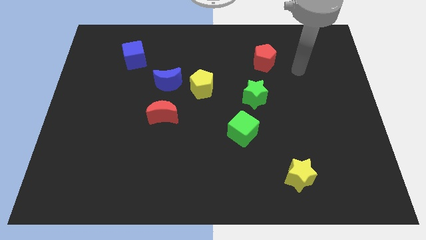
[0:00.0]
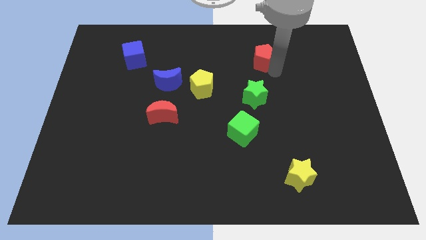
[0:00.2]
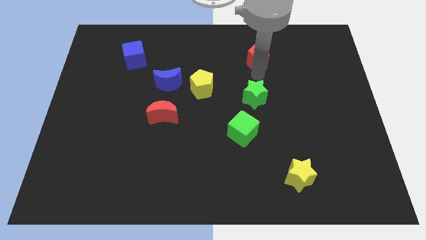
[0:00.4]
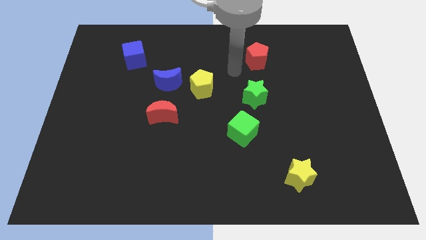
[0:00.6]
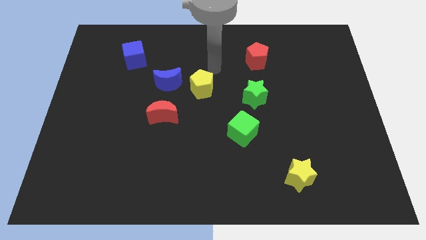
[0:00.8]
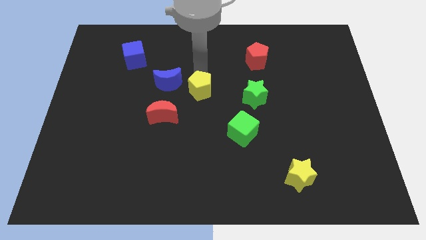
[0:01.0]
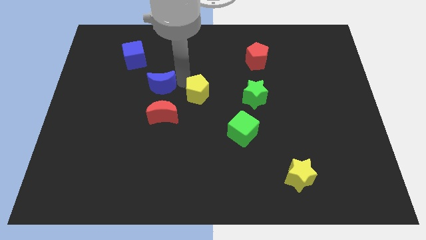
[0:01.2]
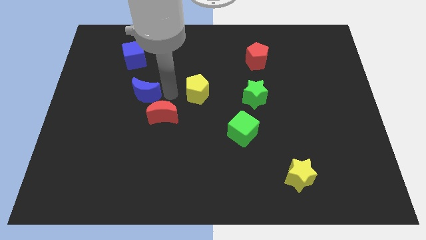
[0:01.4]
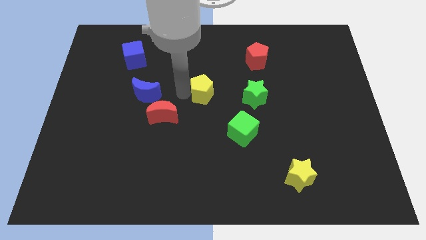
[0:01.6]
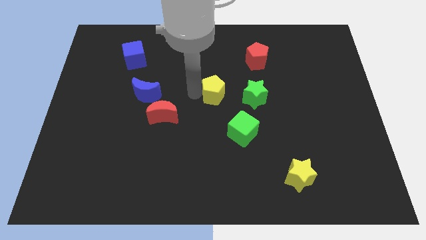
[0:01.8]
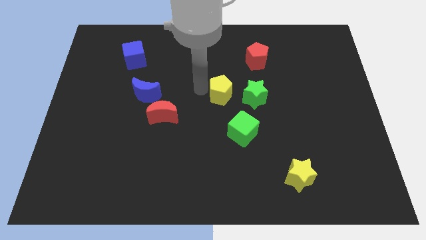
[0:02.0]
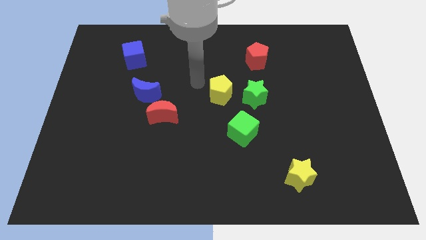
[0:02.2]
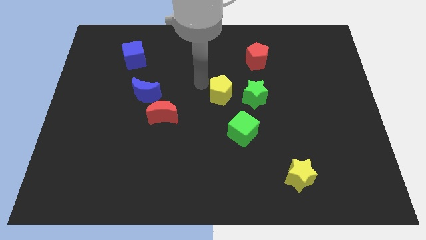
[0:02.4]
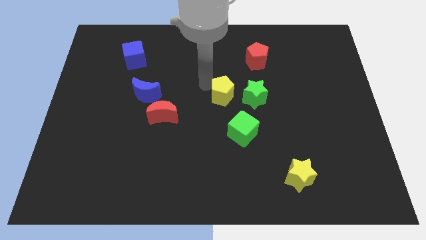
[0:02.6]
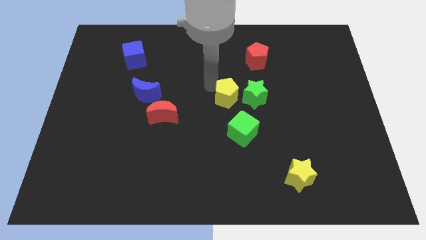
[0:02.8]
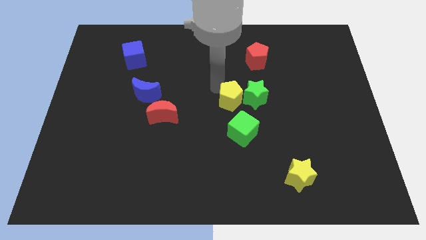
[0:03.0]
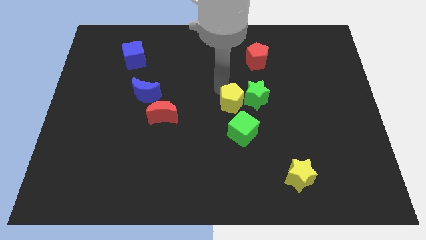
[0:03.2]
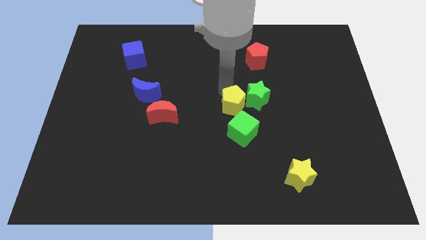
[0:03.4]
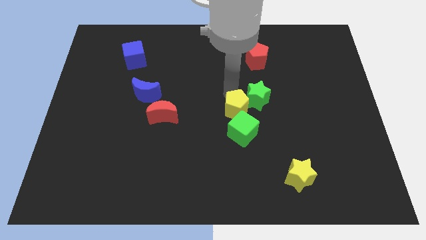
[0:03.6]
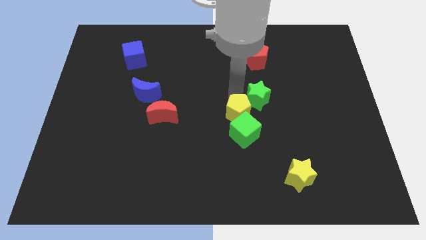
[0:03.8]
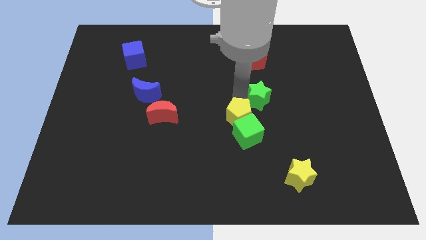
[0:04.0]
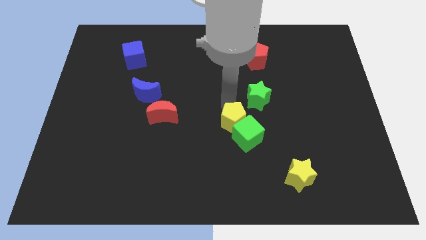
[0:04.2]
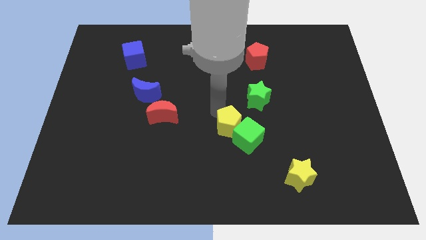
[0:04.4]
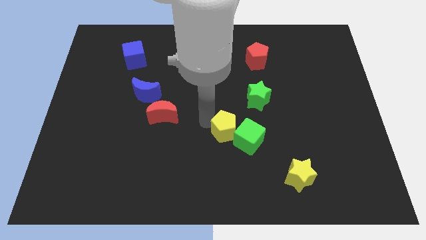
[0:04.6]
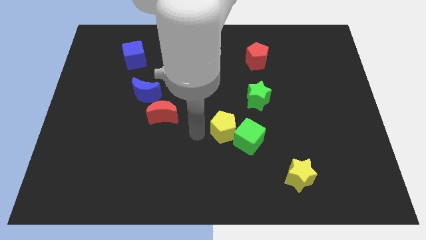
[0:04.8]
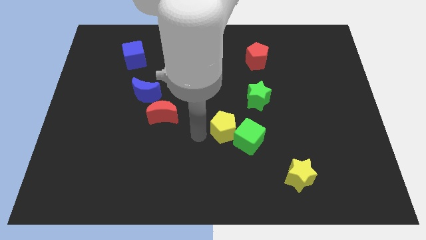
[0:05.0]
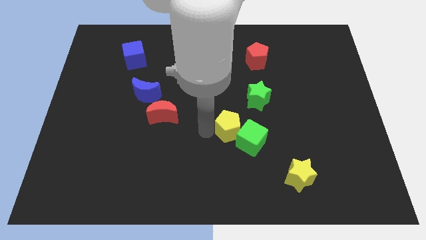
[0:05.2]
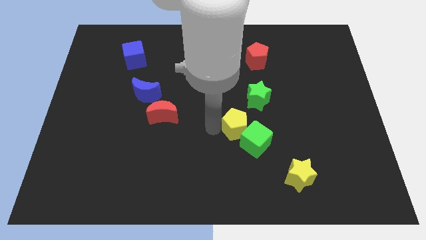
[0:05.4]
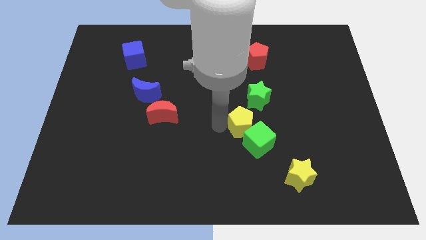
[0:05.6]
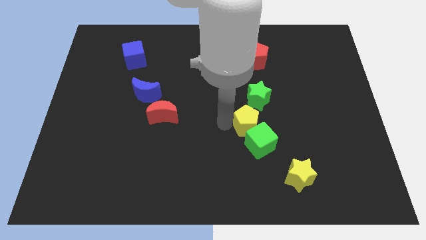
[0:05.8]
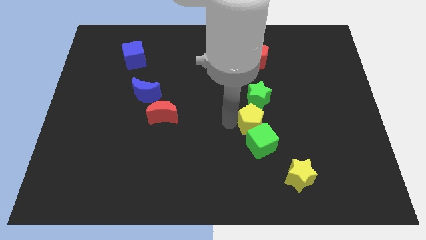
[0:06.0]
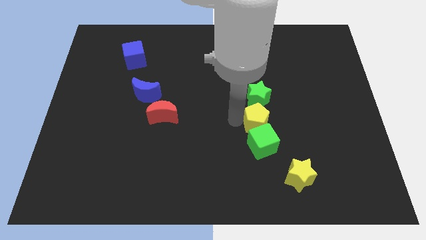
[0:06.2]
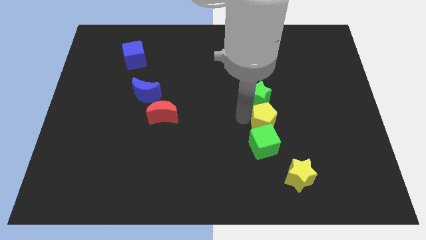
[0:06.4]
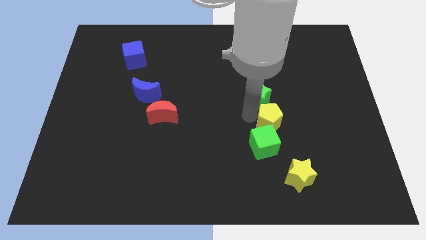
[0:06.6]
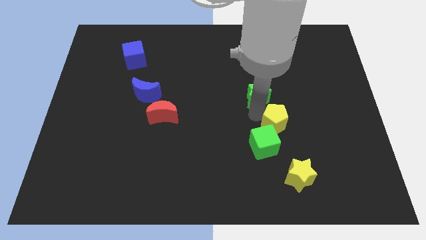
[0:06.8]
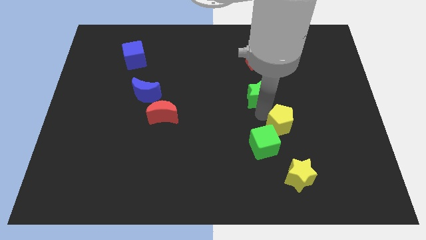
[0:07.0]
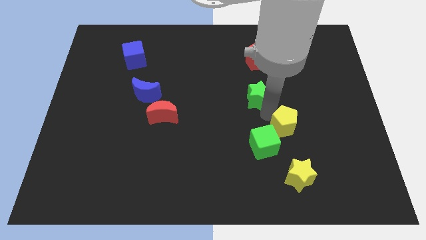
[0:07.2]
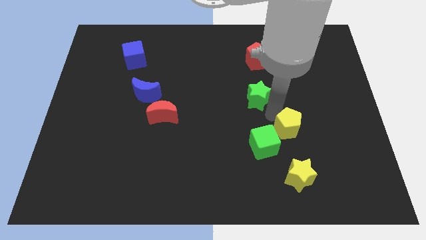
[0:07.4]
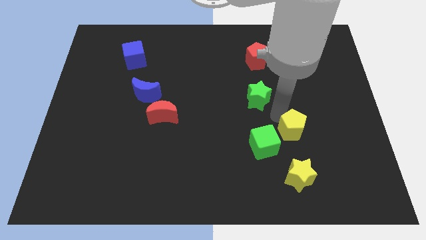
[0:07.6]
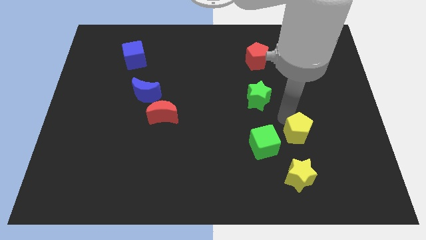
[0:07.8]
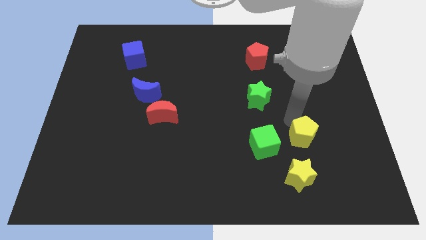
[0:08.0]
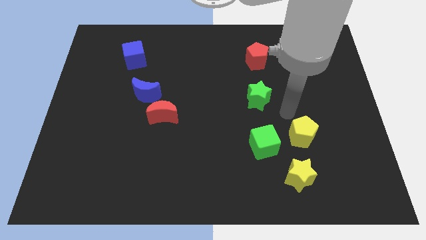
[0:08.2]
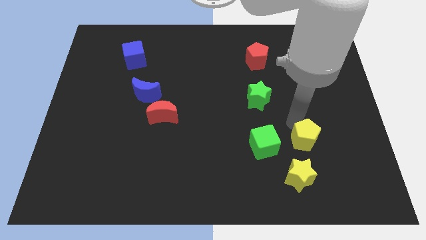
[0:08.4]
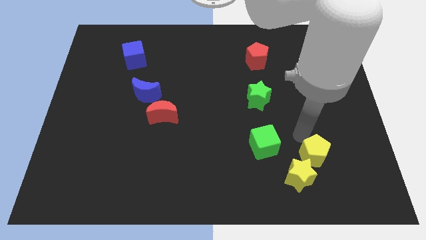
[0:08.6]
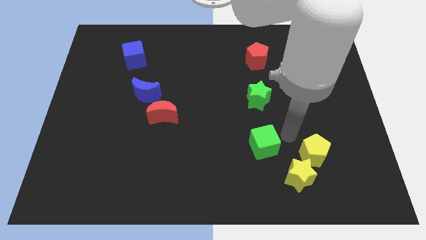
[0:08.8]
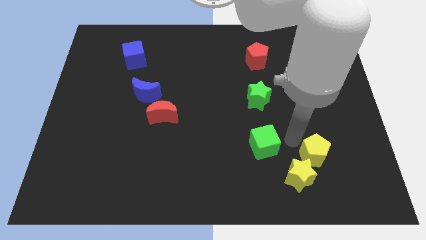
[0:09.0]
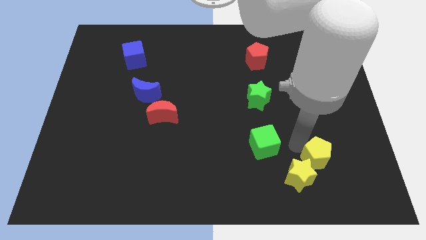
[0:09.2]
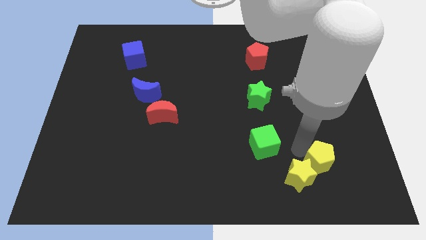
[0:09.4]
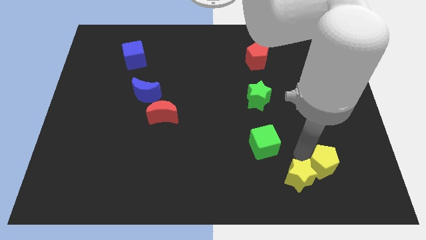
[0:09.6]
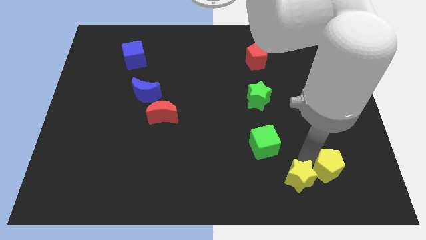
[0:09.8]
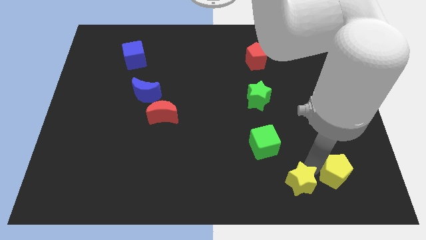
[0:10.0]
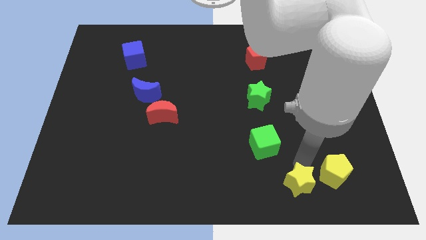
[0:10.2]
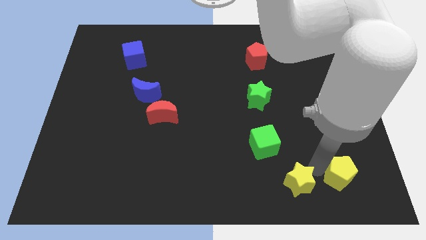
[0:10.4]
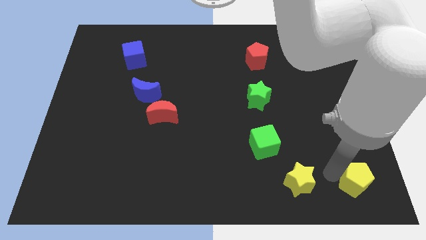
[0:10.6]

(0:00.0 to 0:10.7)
put the yellow pentagon to the bottom right corner

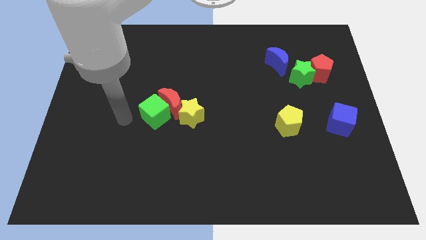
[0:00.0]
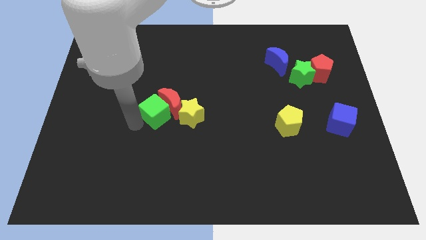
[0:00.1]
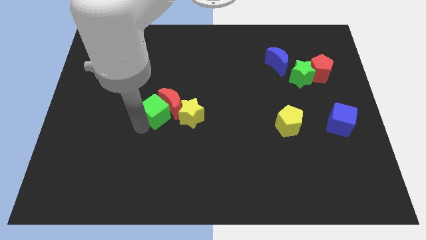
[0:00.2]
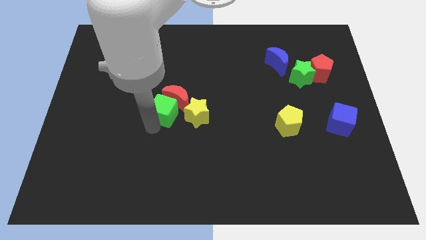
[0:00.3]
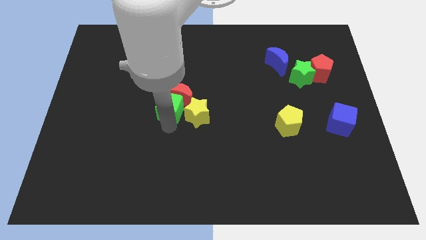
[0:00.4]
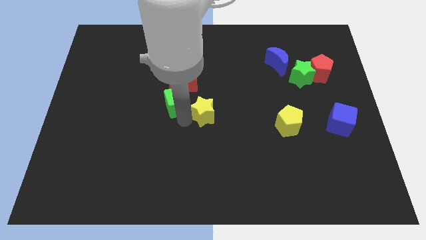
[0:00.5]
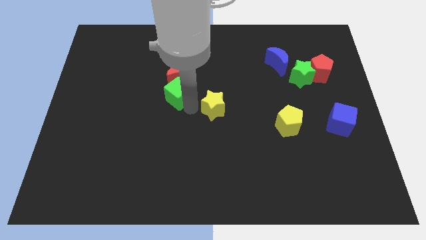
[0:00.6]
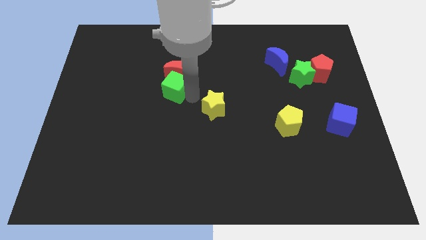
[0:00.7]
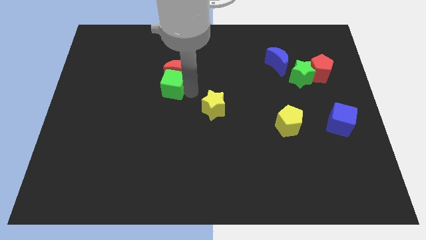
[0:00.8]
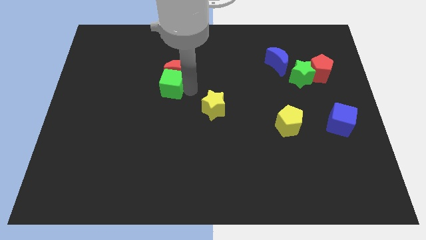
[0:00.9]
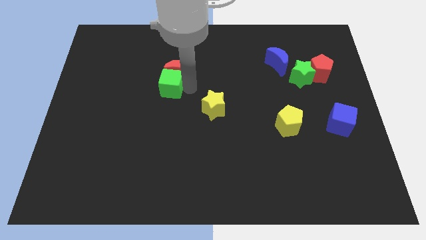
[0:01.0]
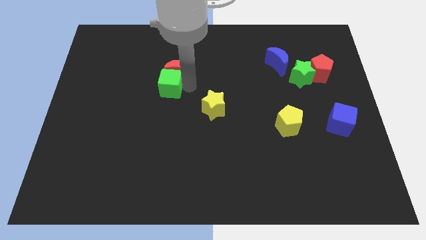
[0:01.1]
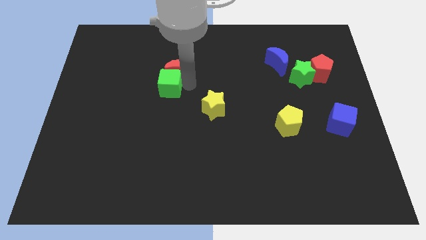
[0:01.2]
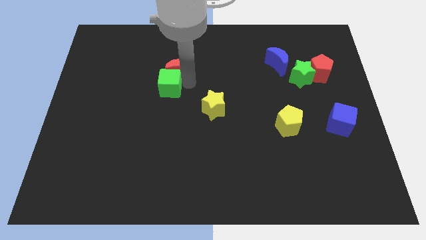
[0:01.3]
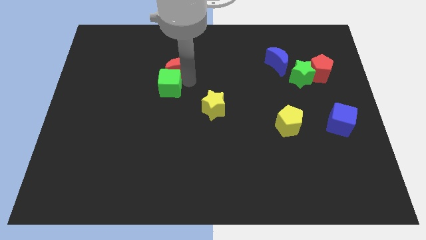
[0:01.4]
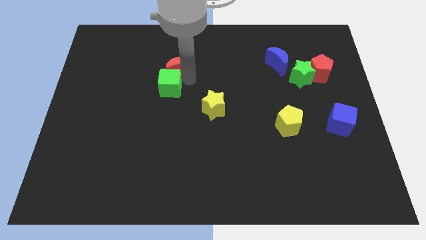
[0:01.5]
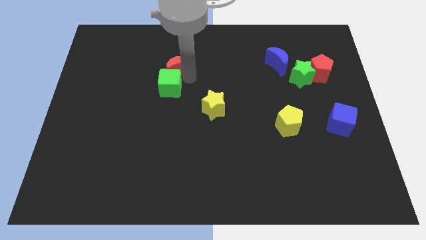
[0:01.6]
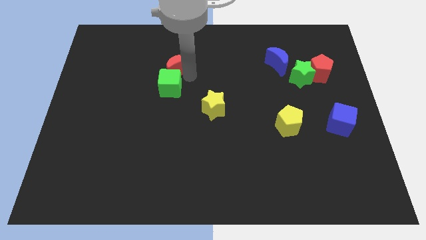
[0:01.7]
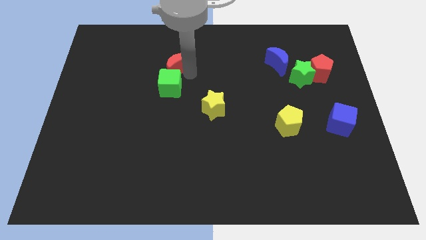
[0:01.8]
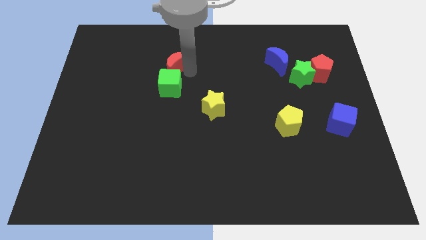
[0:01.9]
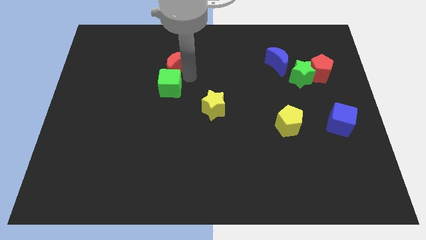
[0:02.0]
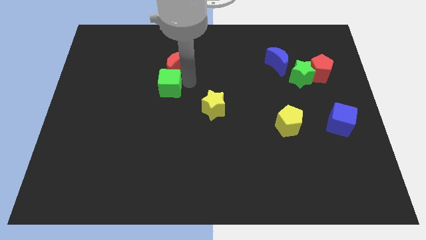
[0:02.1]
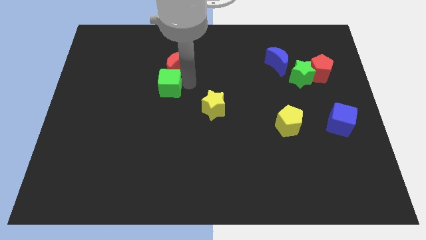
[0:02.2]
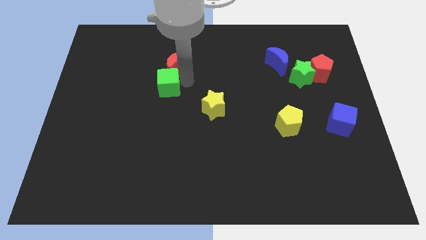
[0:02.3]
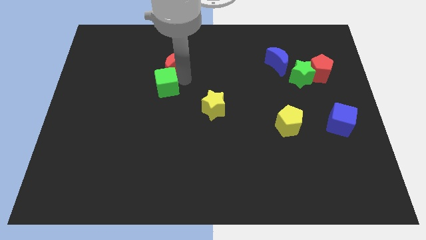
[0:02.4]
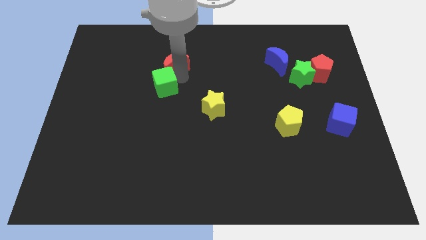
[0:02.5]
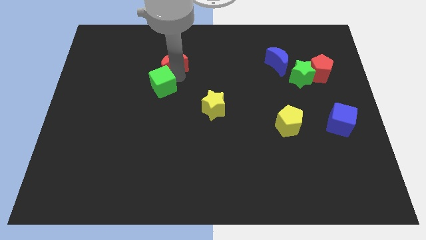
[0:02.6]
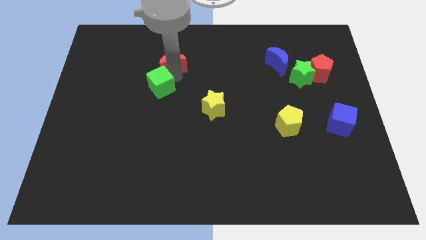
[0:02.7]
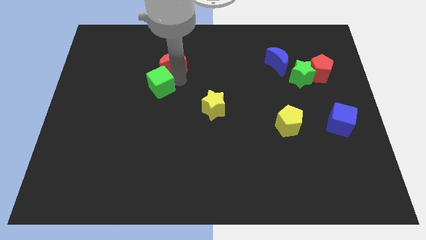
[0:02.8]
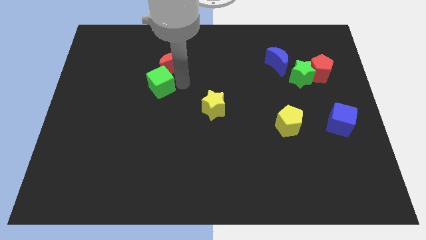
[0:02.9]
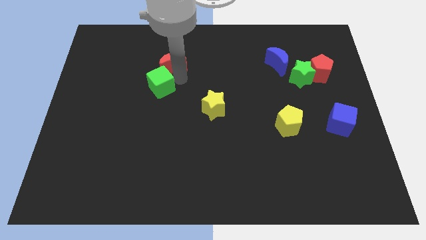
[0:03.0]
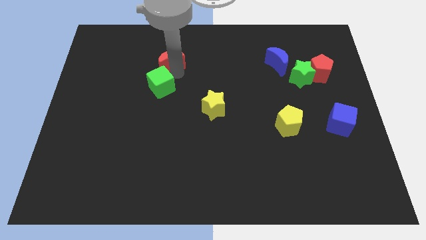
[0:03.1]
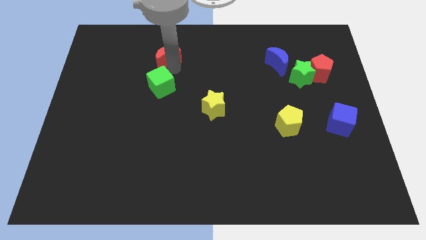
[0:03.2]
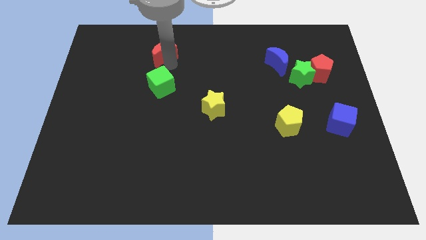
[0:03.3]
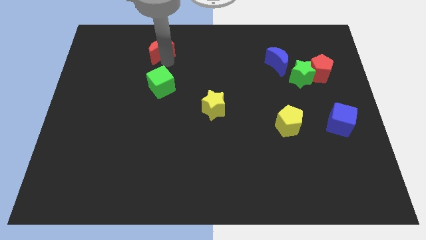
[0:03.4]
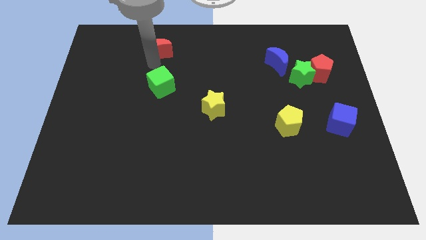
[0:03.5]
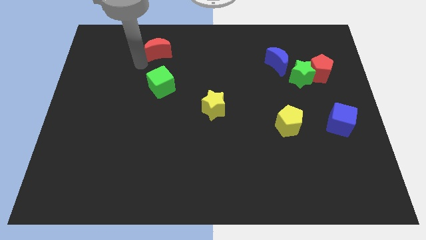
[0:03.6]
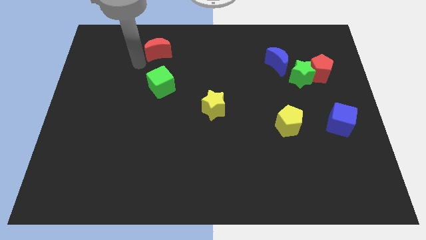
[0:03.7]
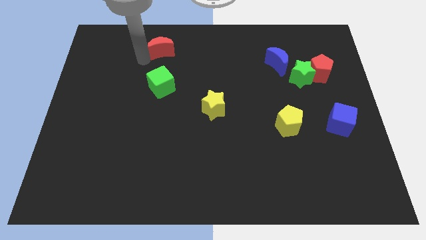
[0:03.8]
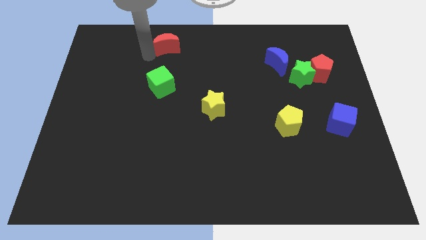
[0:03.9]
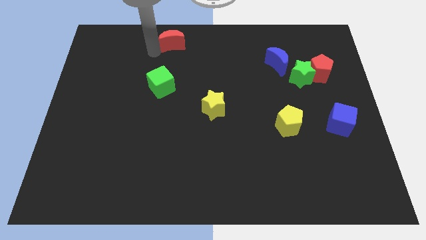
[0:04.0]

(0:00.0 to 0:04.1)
move the red moon to the top side
